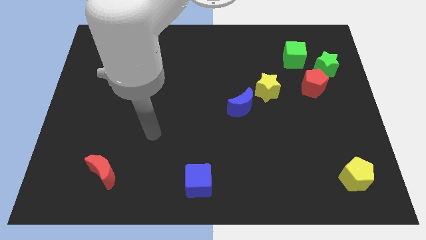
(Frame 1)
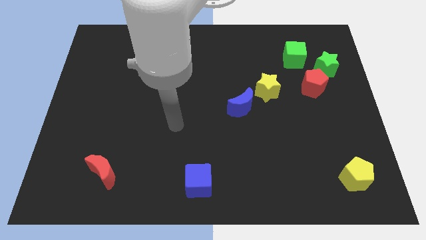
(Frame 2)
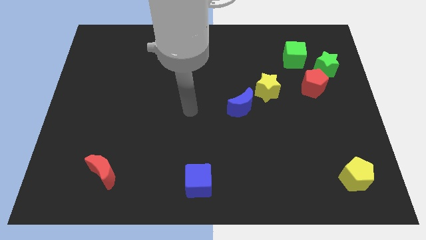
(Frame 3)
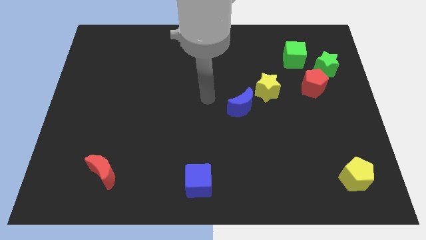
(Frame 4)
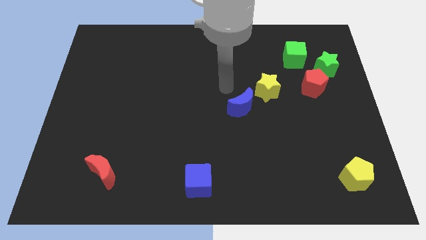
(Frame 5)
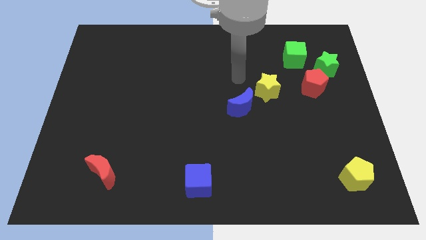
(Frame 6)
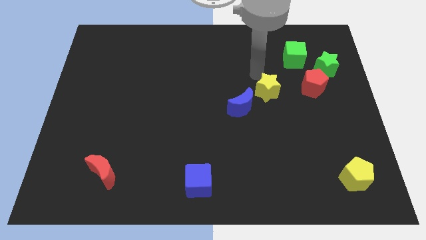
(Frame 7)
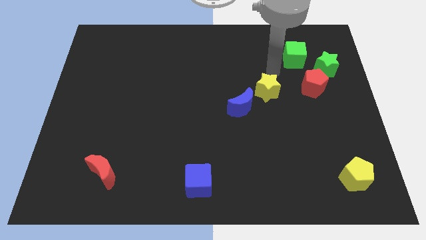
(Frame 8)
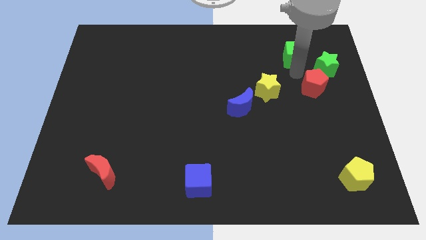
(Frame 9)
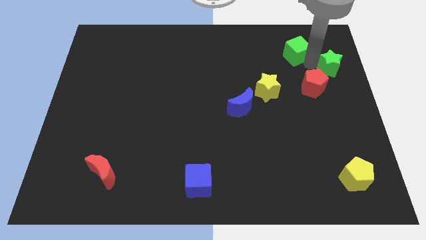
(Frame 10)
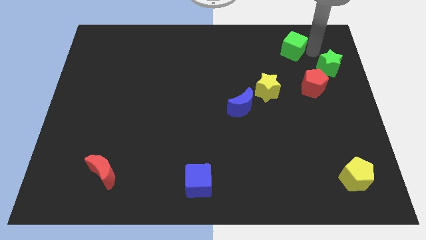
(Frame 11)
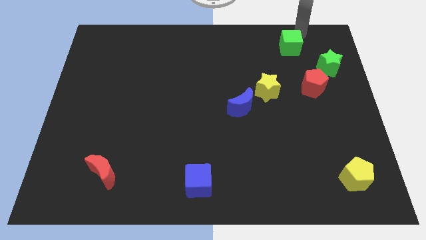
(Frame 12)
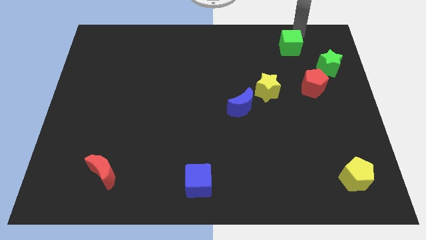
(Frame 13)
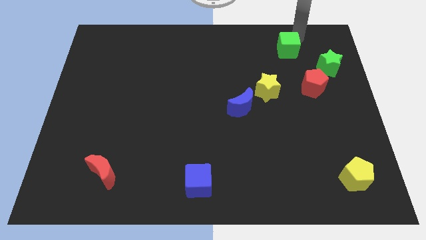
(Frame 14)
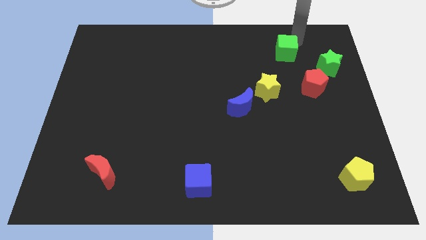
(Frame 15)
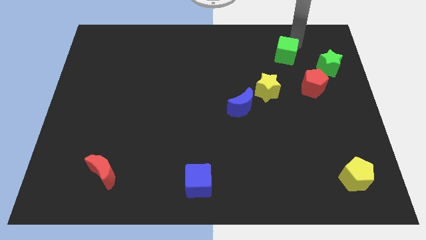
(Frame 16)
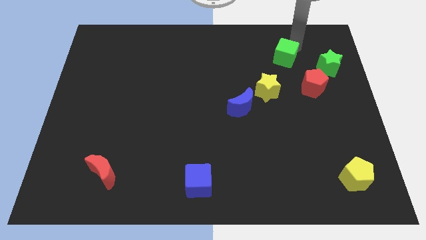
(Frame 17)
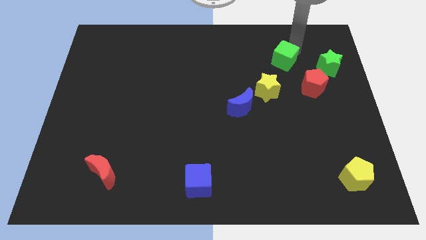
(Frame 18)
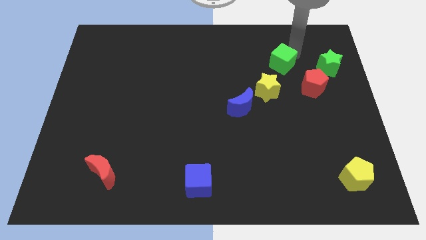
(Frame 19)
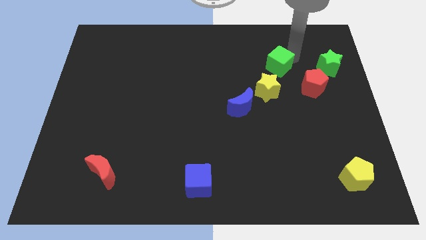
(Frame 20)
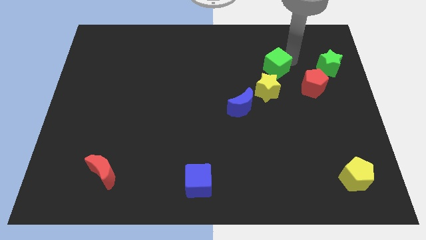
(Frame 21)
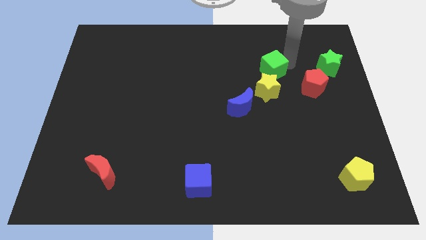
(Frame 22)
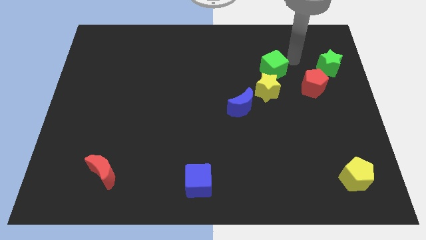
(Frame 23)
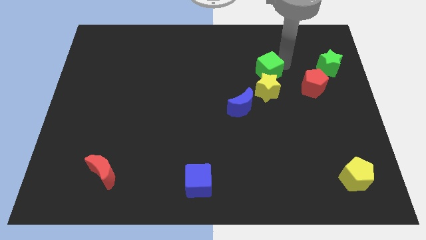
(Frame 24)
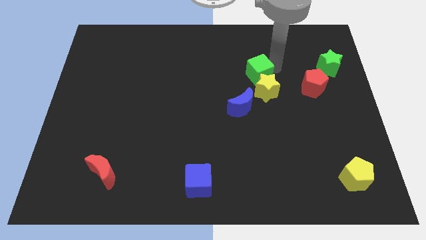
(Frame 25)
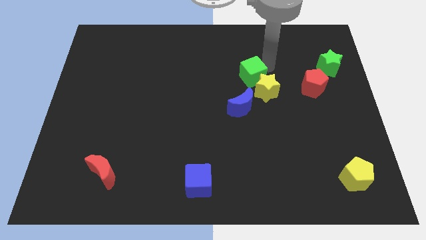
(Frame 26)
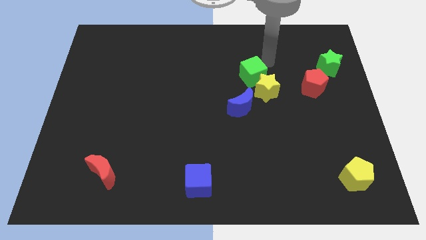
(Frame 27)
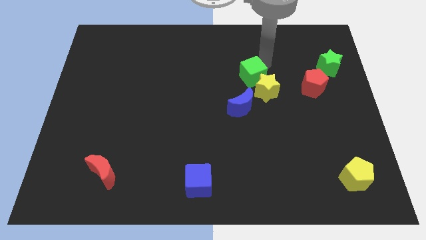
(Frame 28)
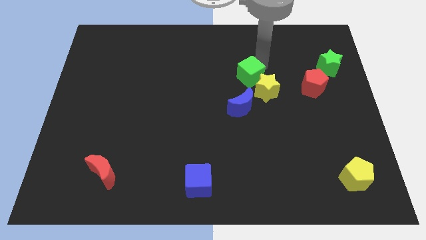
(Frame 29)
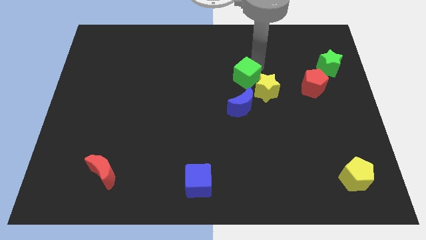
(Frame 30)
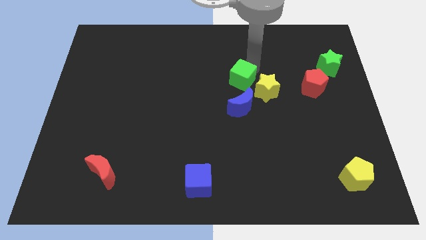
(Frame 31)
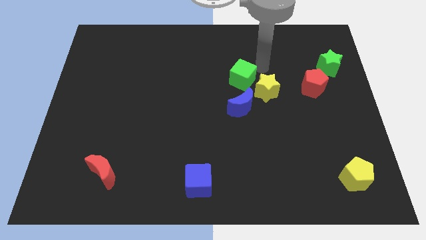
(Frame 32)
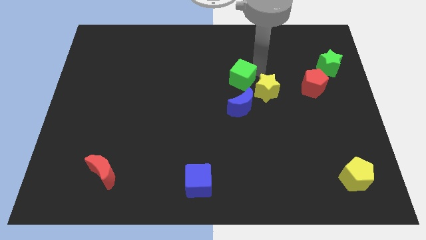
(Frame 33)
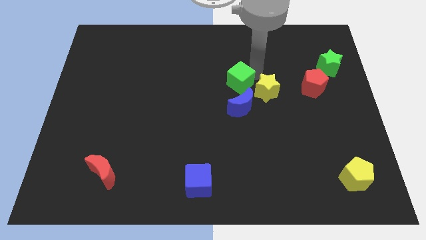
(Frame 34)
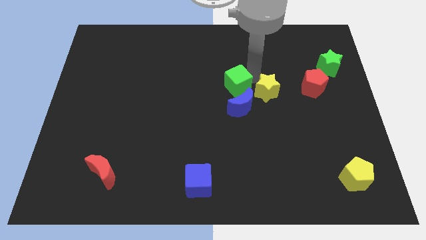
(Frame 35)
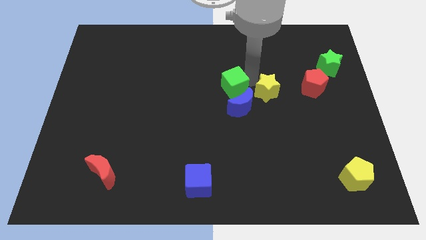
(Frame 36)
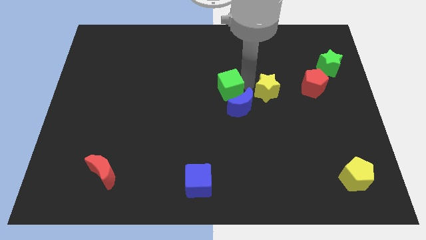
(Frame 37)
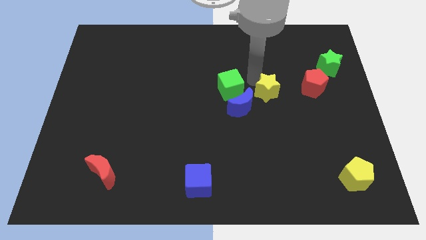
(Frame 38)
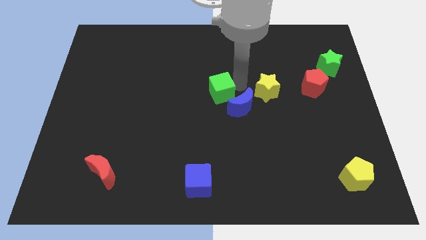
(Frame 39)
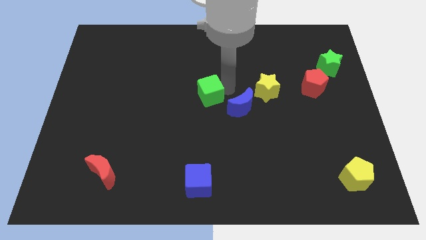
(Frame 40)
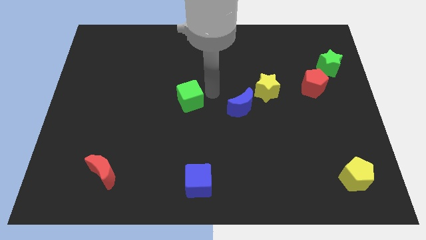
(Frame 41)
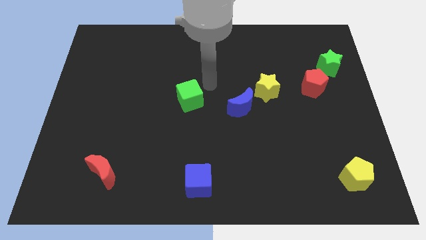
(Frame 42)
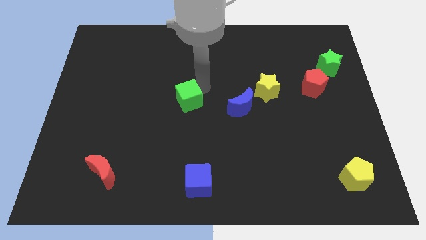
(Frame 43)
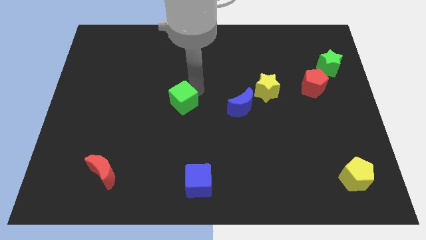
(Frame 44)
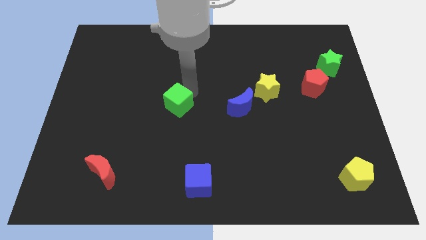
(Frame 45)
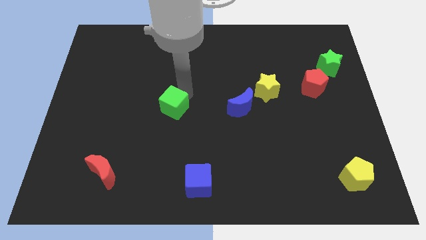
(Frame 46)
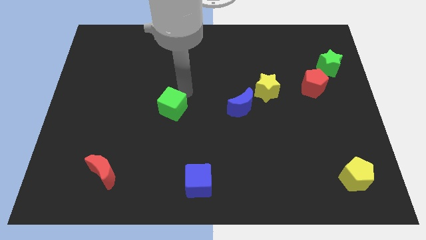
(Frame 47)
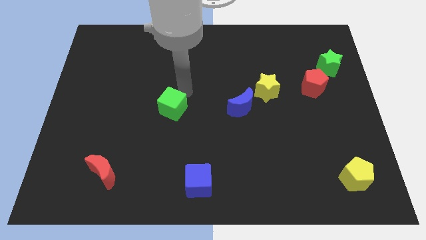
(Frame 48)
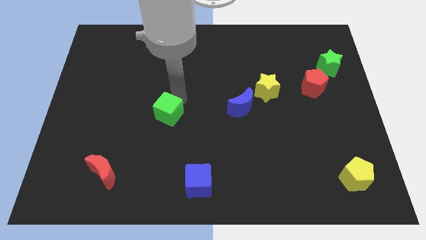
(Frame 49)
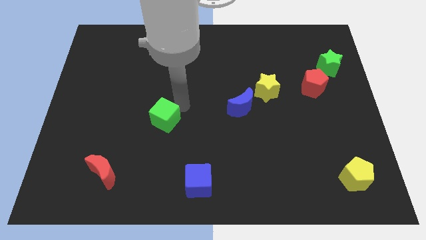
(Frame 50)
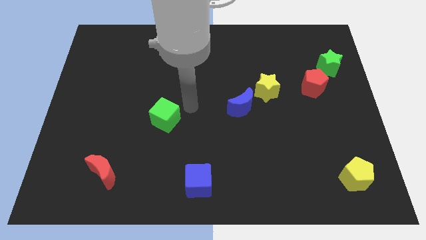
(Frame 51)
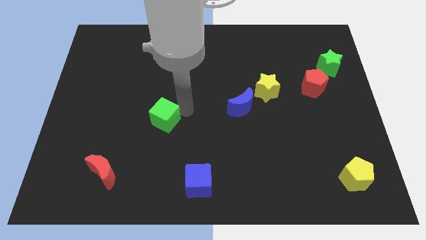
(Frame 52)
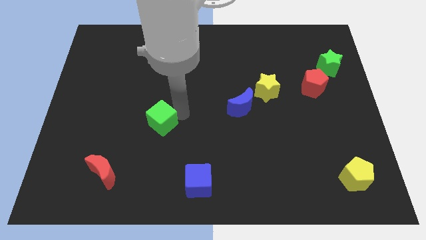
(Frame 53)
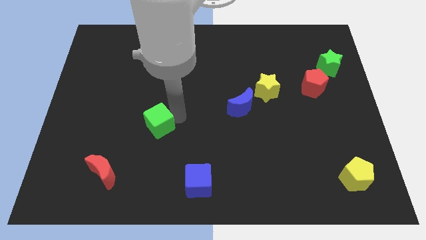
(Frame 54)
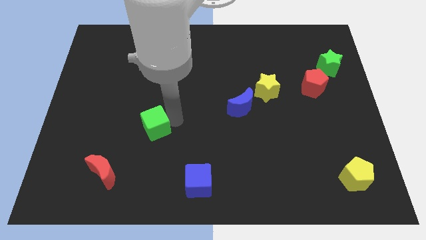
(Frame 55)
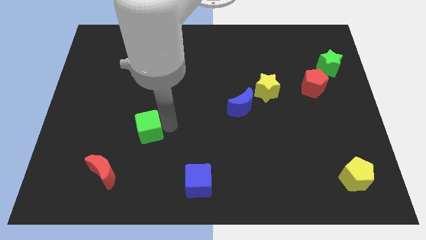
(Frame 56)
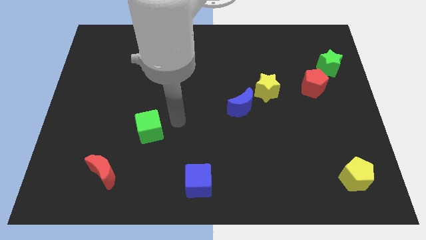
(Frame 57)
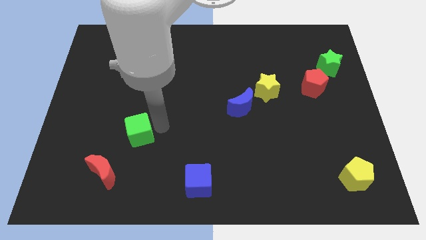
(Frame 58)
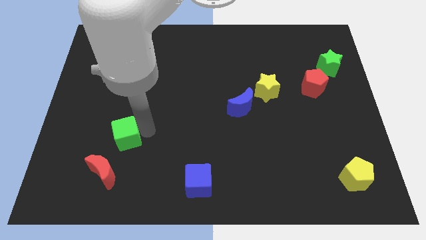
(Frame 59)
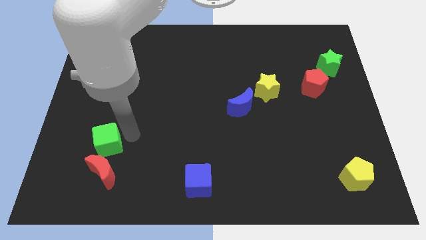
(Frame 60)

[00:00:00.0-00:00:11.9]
move the green cube to the top left of the red moon

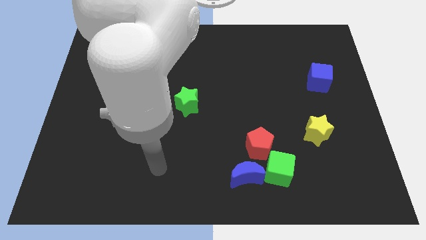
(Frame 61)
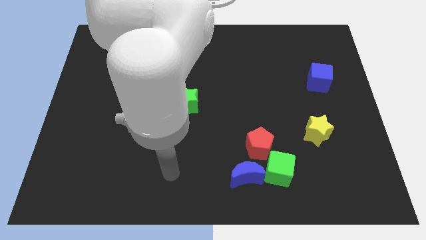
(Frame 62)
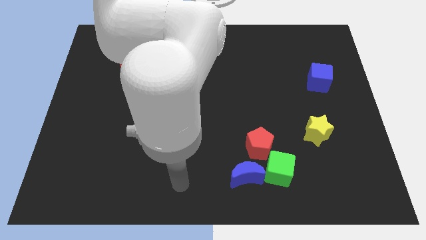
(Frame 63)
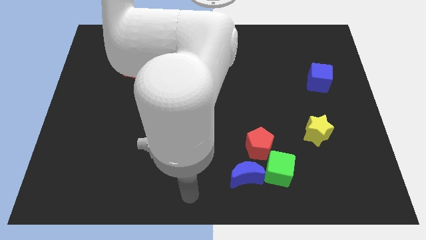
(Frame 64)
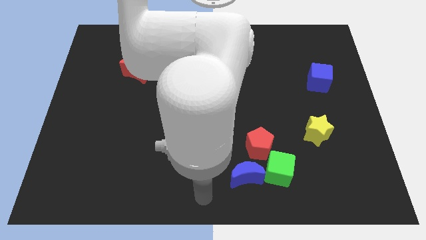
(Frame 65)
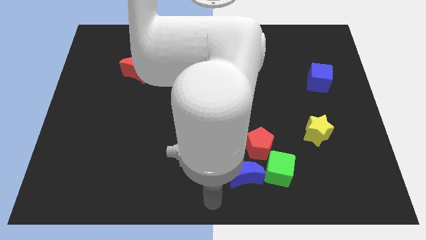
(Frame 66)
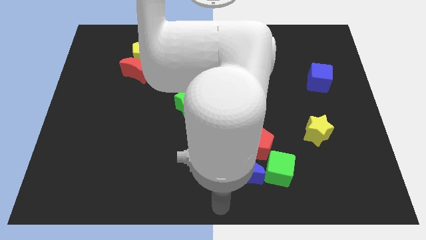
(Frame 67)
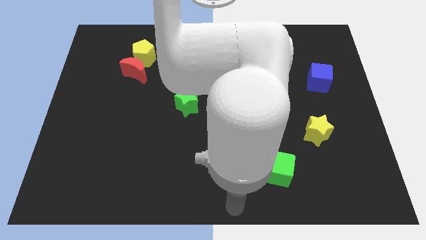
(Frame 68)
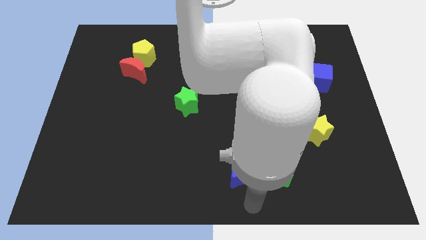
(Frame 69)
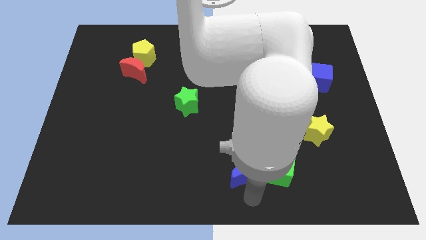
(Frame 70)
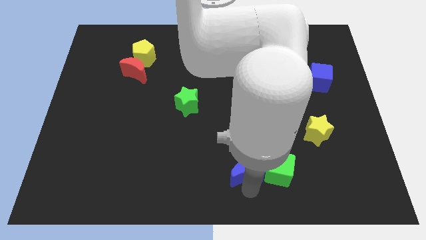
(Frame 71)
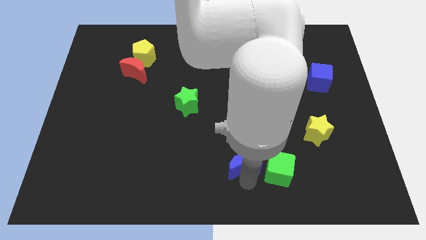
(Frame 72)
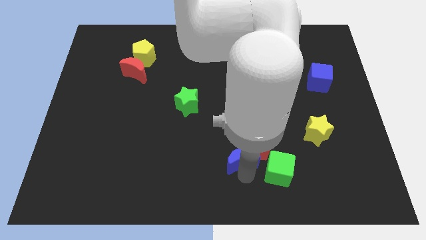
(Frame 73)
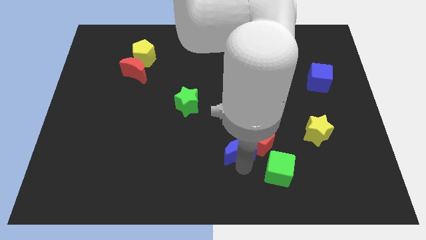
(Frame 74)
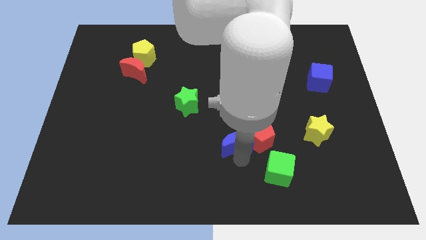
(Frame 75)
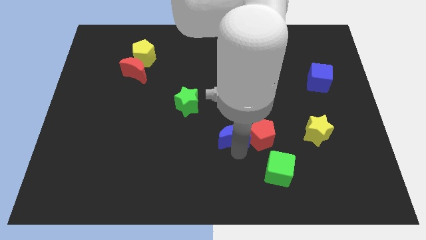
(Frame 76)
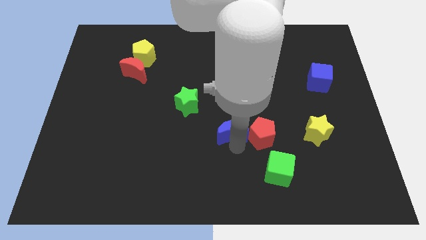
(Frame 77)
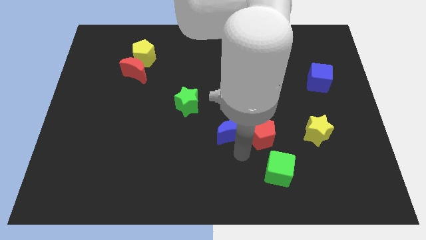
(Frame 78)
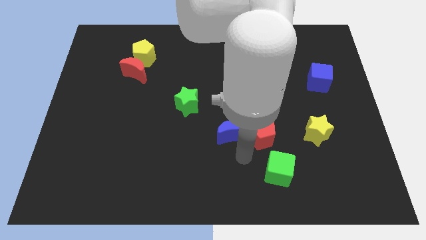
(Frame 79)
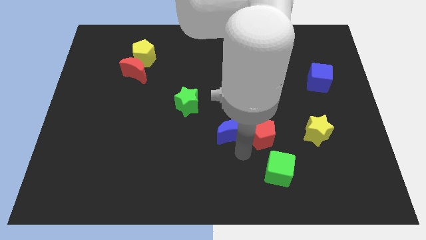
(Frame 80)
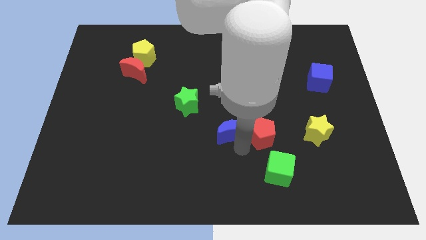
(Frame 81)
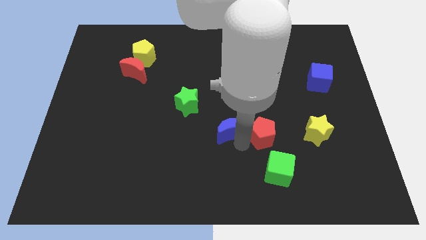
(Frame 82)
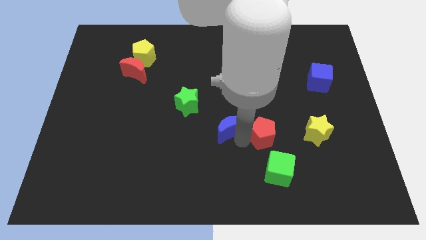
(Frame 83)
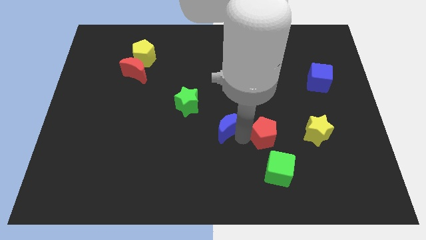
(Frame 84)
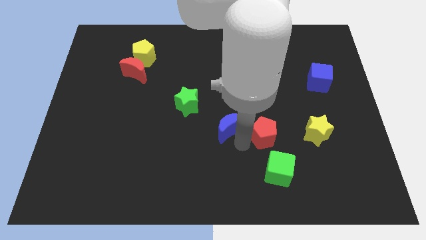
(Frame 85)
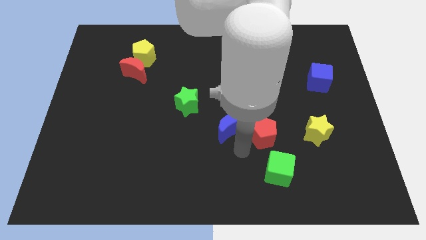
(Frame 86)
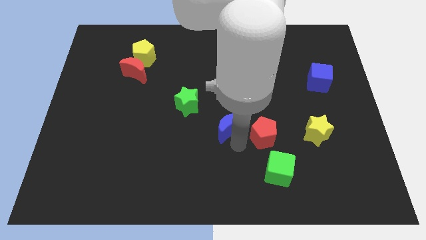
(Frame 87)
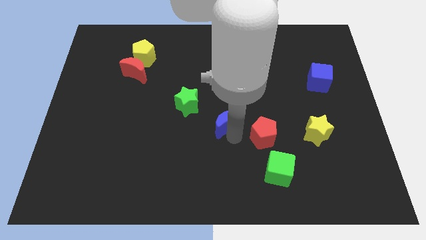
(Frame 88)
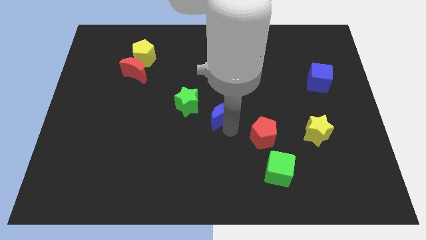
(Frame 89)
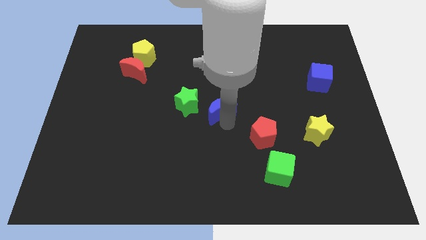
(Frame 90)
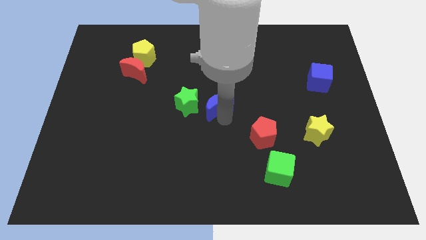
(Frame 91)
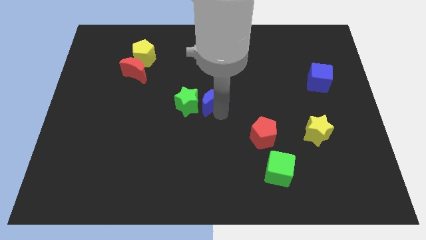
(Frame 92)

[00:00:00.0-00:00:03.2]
slide the blue moon to the top right side of the green star
